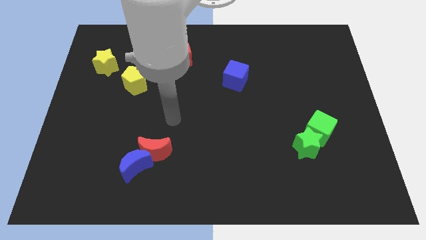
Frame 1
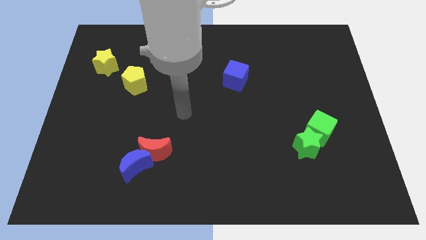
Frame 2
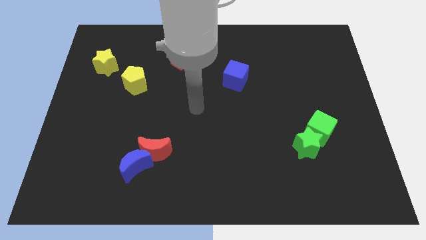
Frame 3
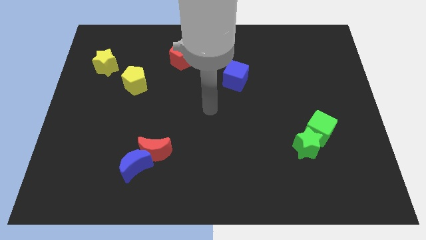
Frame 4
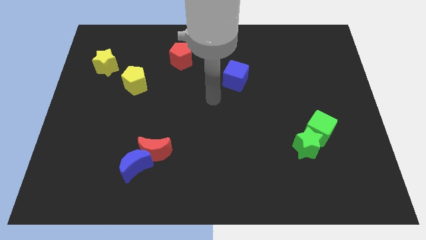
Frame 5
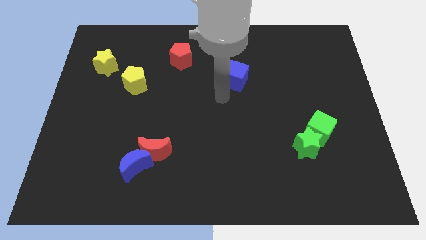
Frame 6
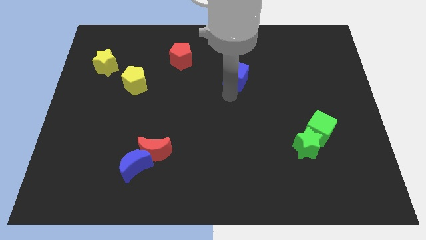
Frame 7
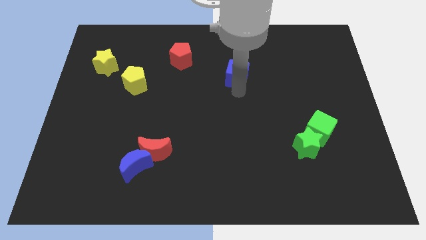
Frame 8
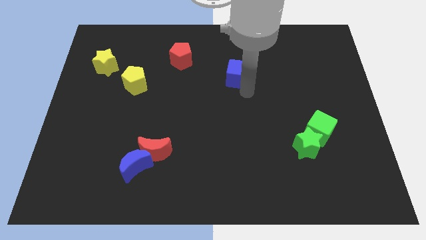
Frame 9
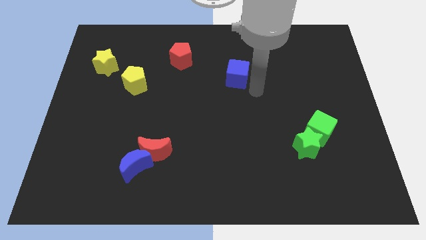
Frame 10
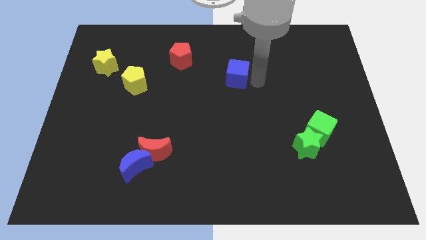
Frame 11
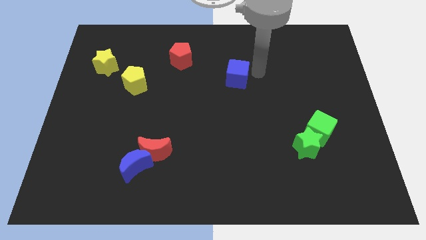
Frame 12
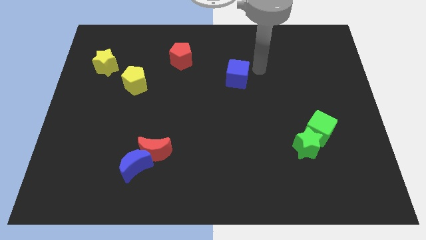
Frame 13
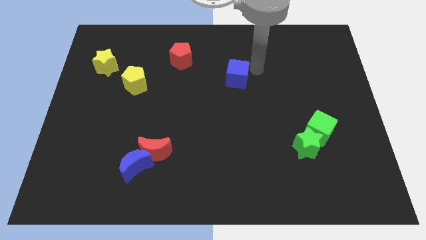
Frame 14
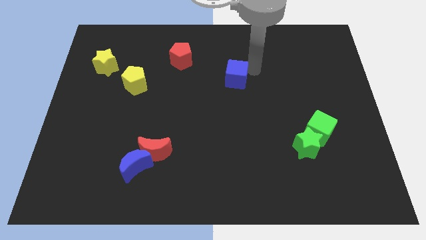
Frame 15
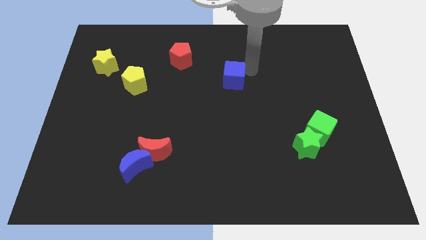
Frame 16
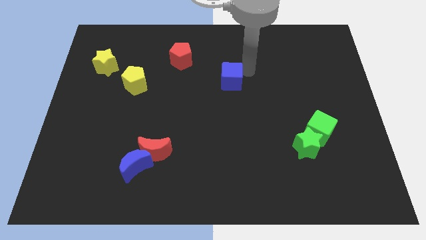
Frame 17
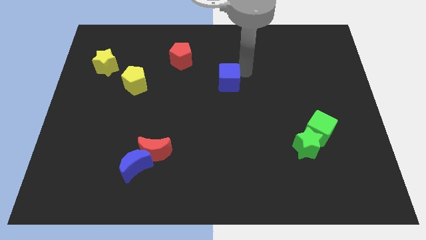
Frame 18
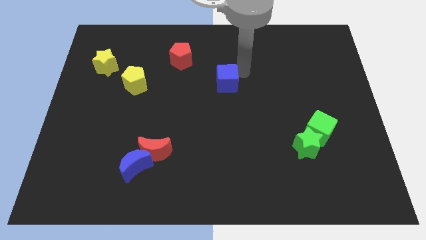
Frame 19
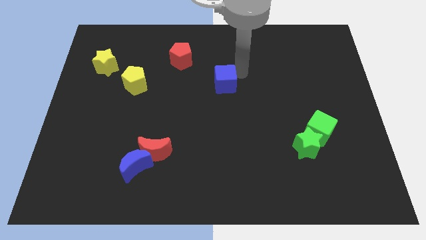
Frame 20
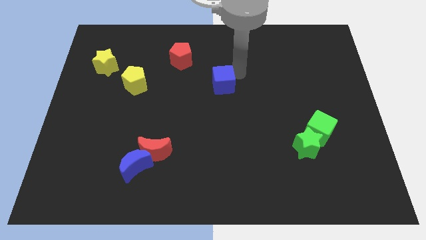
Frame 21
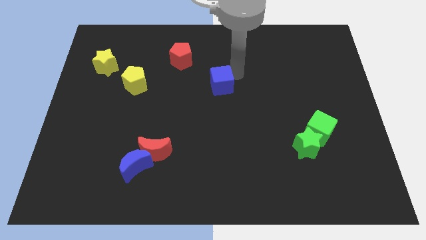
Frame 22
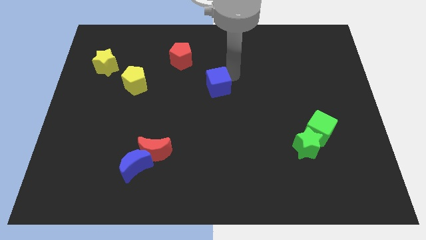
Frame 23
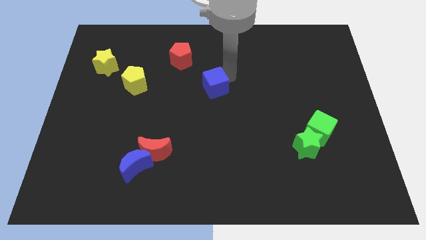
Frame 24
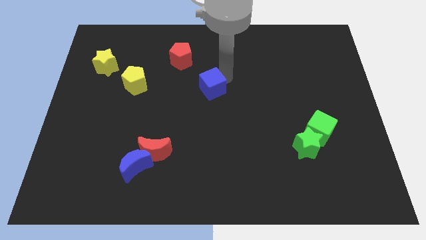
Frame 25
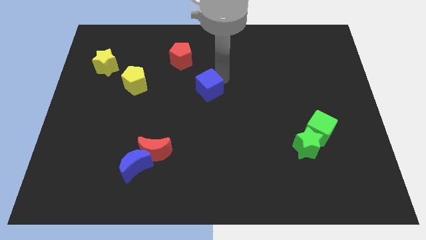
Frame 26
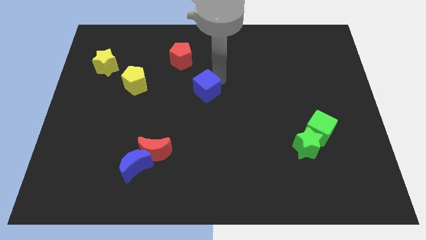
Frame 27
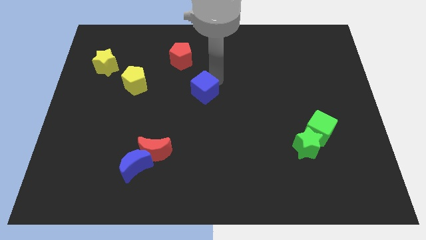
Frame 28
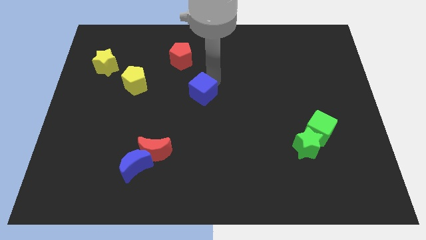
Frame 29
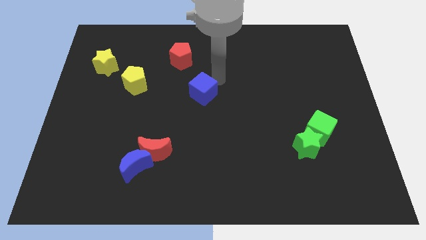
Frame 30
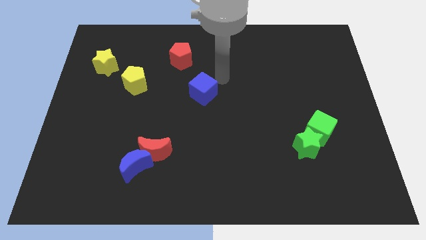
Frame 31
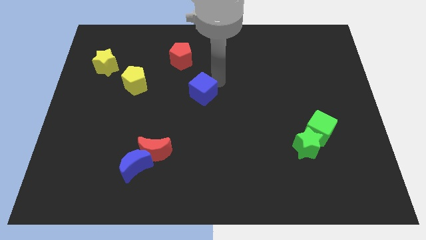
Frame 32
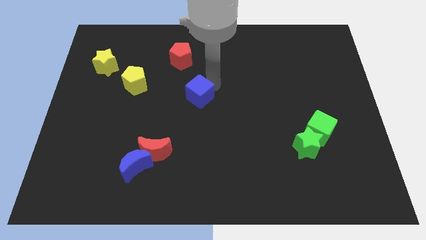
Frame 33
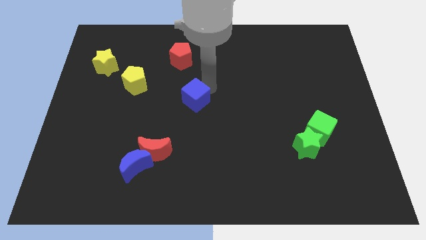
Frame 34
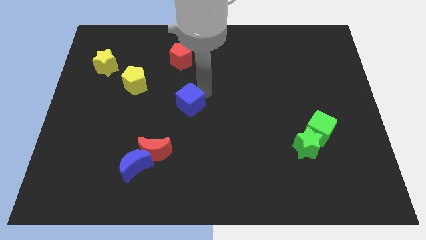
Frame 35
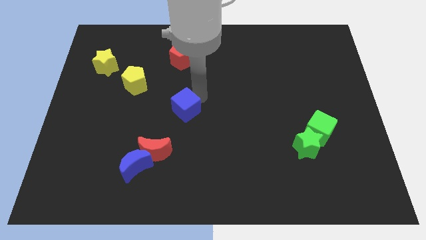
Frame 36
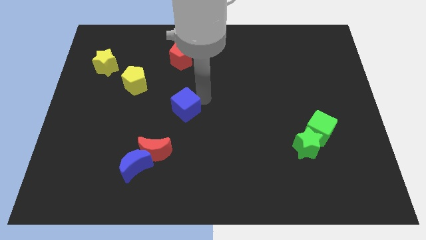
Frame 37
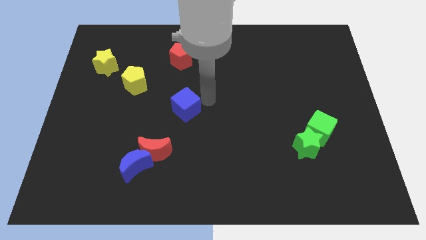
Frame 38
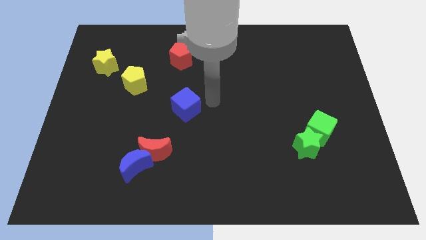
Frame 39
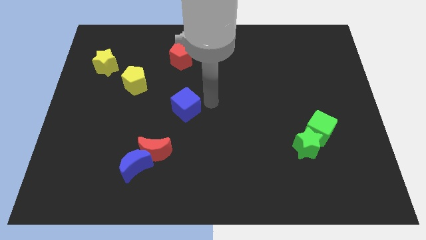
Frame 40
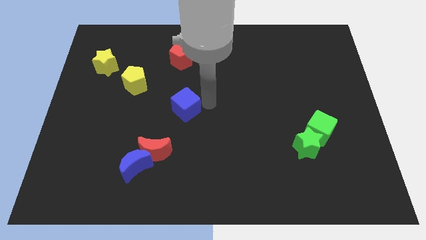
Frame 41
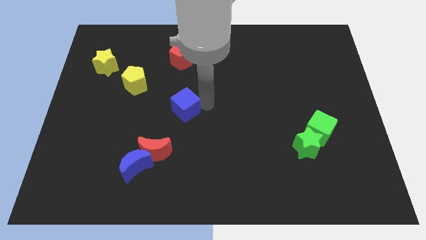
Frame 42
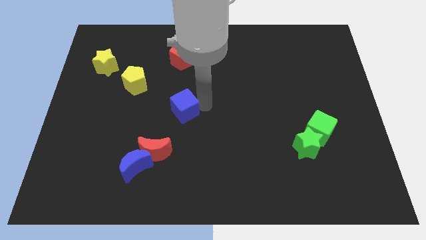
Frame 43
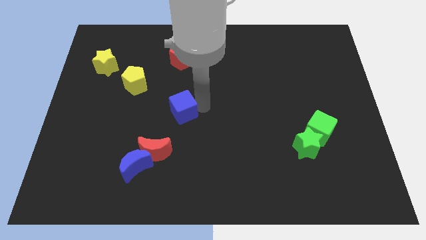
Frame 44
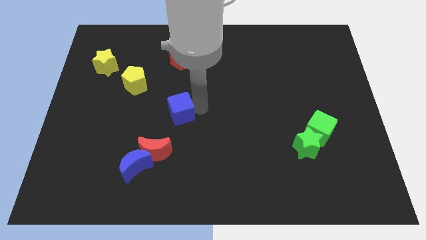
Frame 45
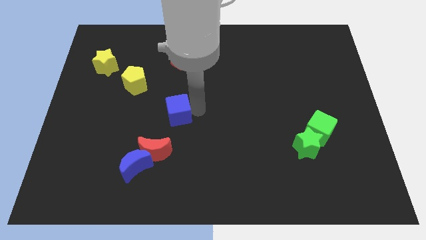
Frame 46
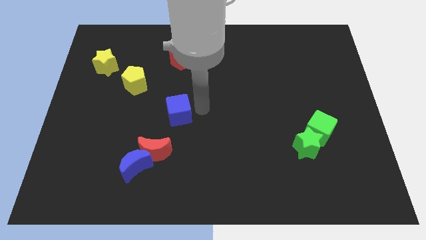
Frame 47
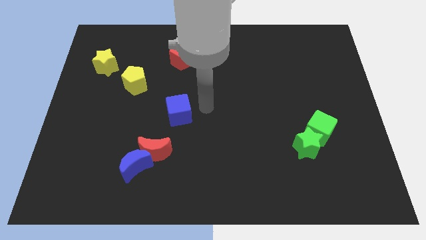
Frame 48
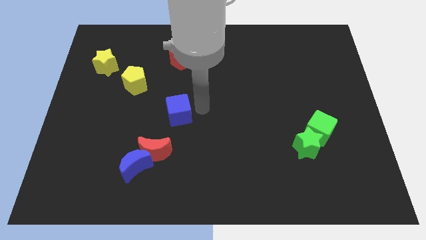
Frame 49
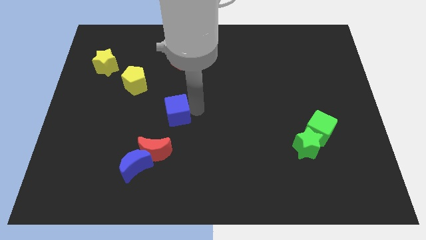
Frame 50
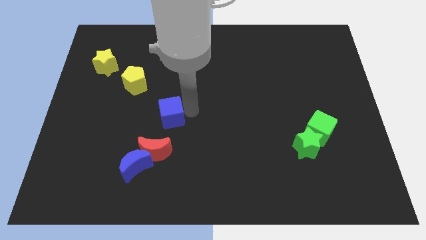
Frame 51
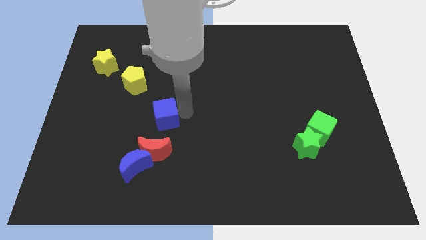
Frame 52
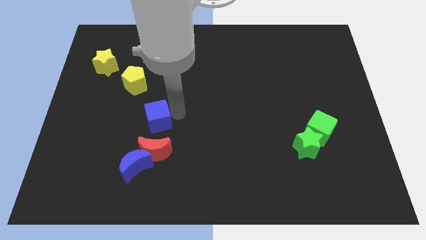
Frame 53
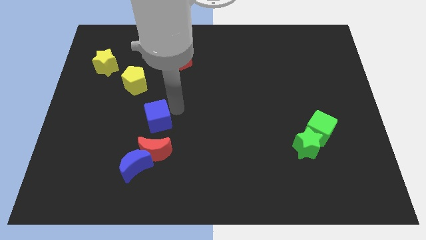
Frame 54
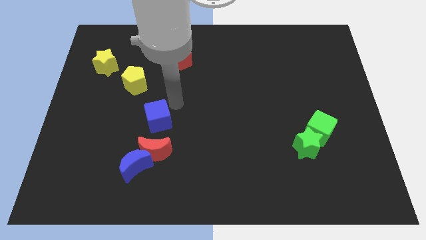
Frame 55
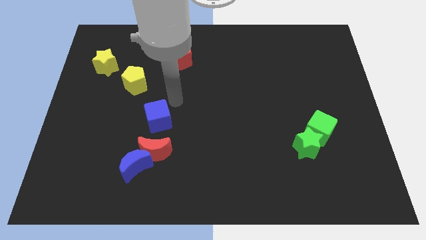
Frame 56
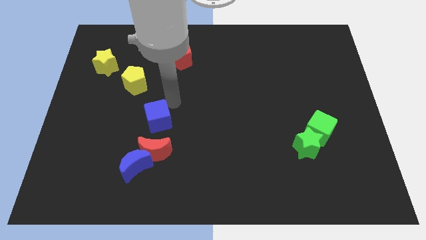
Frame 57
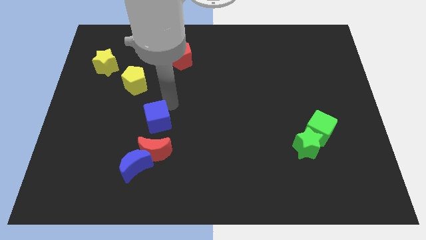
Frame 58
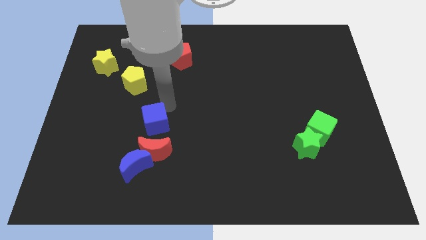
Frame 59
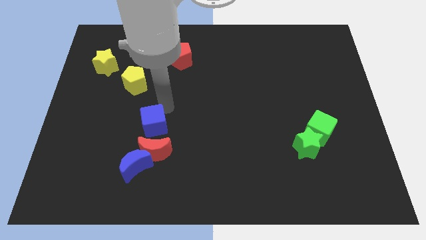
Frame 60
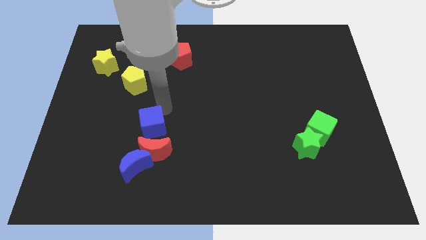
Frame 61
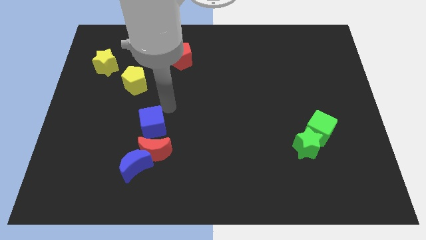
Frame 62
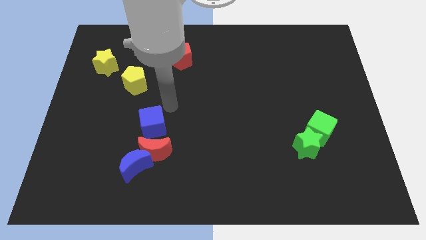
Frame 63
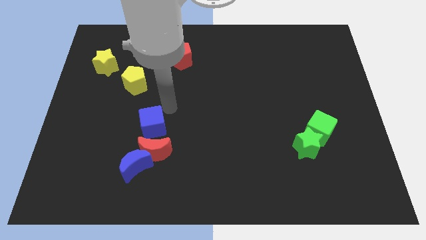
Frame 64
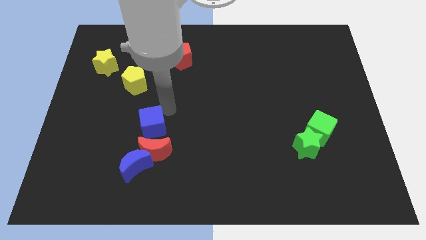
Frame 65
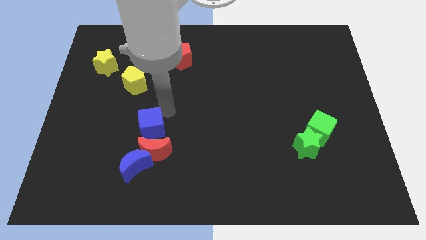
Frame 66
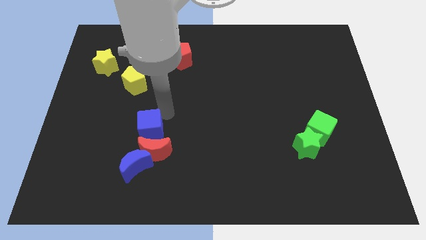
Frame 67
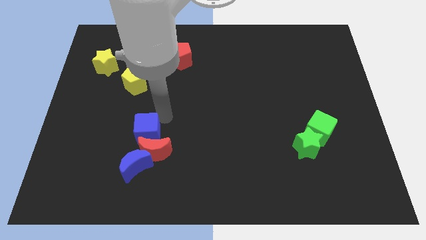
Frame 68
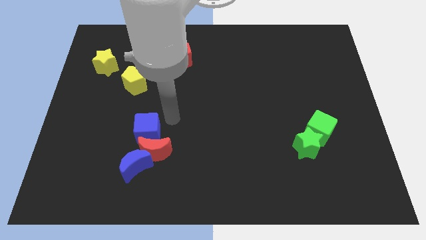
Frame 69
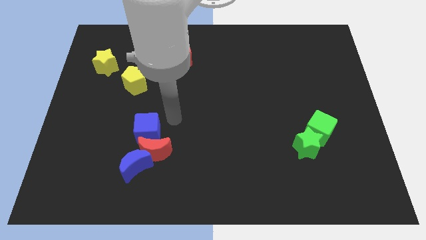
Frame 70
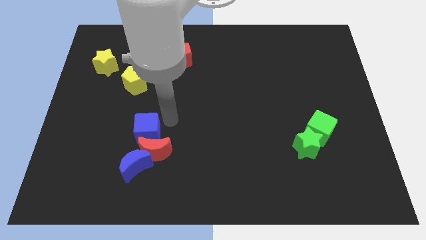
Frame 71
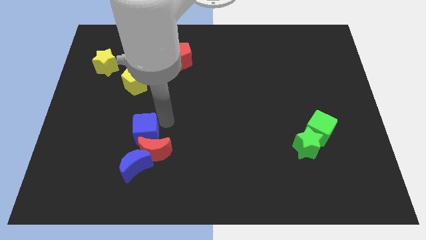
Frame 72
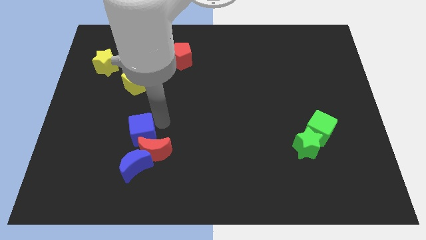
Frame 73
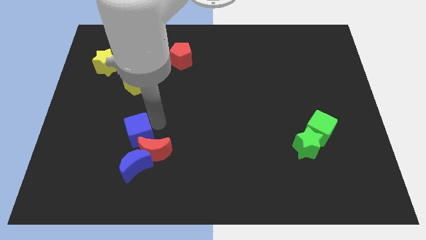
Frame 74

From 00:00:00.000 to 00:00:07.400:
move the blue cube to the left of the red moon
